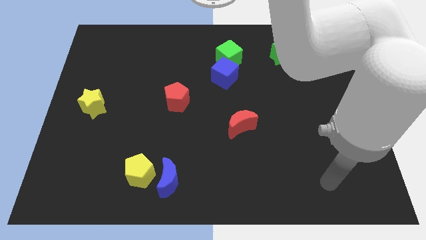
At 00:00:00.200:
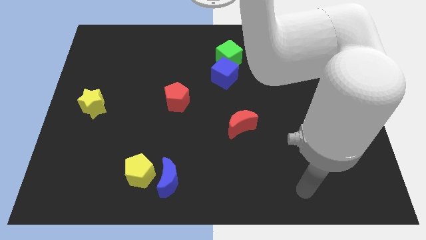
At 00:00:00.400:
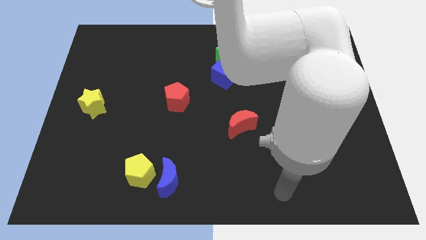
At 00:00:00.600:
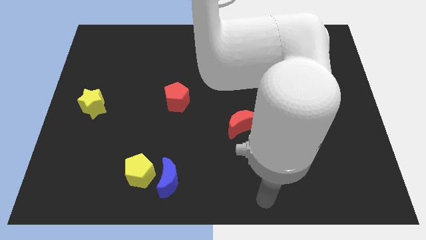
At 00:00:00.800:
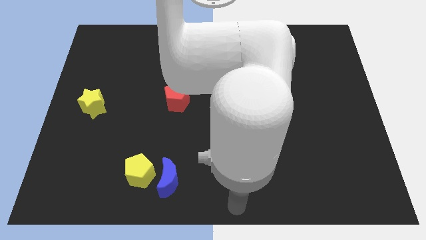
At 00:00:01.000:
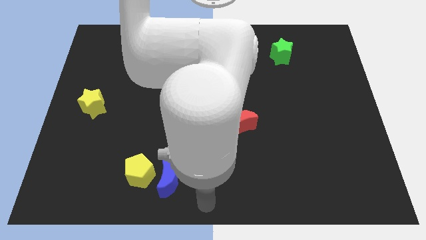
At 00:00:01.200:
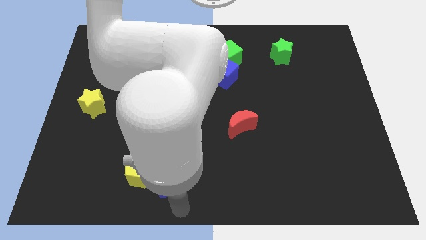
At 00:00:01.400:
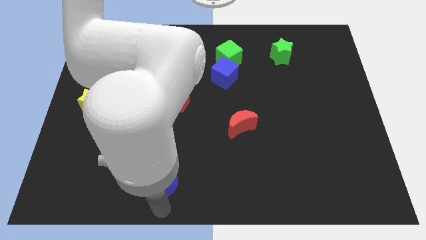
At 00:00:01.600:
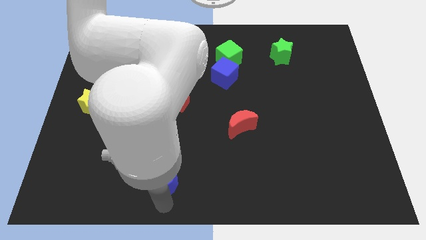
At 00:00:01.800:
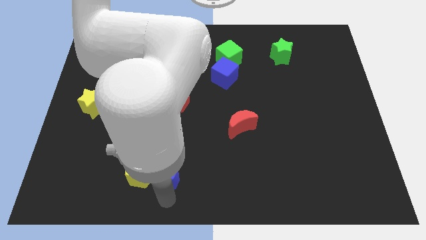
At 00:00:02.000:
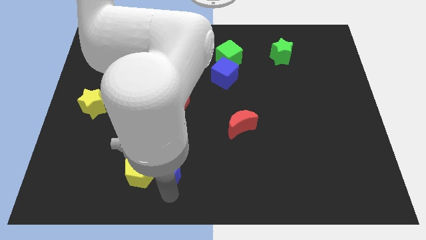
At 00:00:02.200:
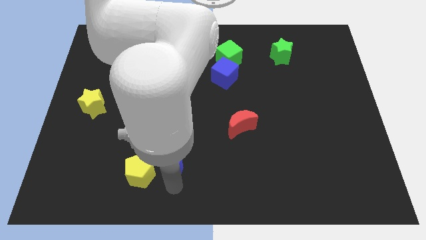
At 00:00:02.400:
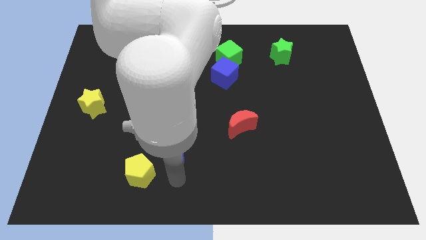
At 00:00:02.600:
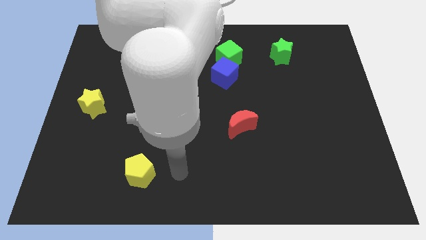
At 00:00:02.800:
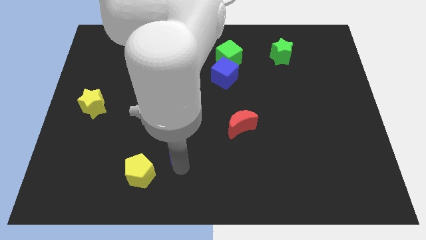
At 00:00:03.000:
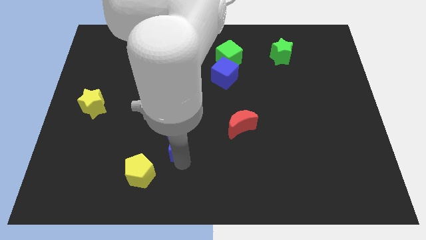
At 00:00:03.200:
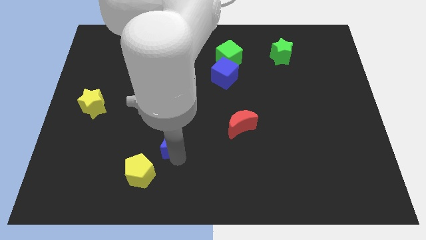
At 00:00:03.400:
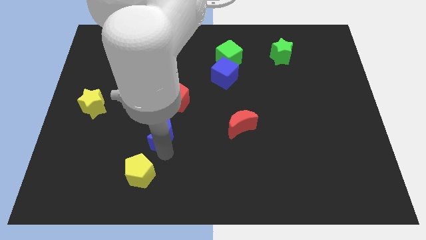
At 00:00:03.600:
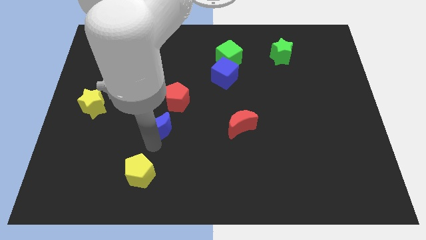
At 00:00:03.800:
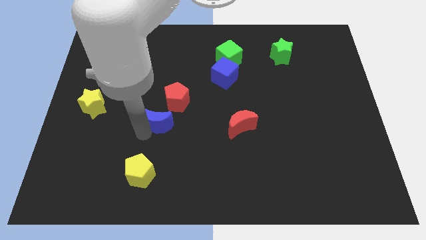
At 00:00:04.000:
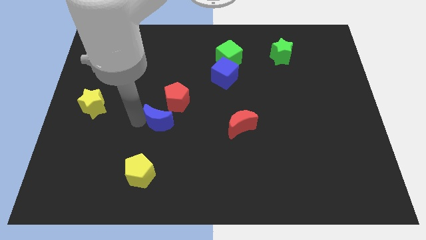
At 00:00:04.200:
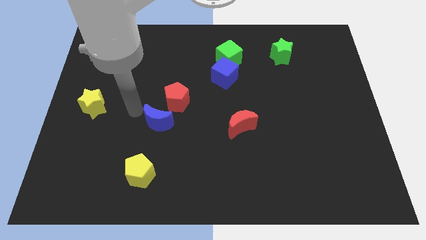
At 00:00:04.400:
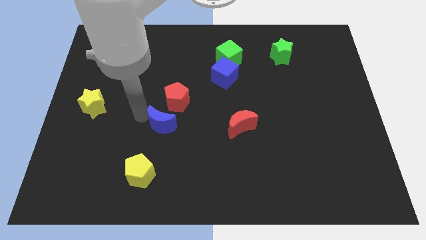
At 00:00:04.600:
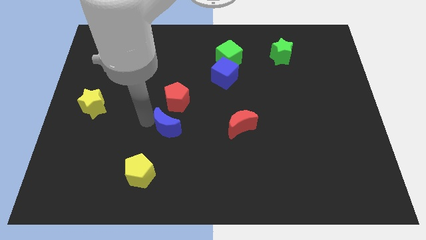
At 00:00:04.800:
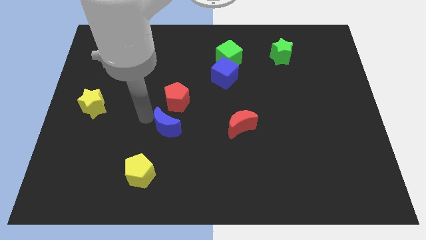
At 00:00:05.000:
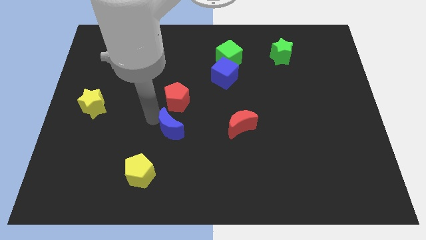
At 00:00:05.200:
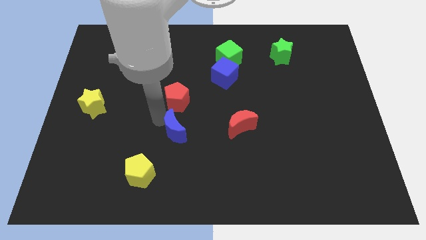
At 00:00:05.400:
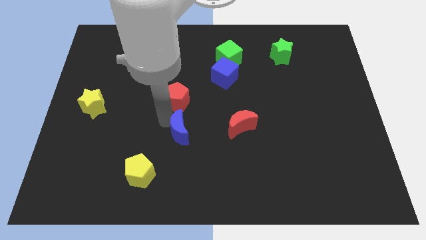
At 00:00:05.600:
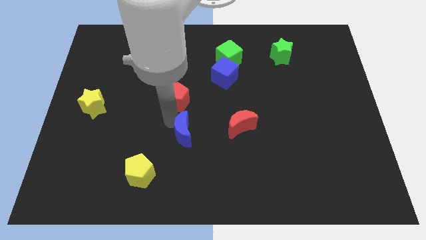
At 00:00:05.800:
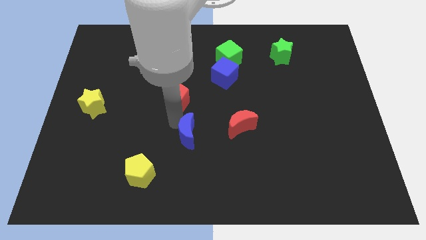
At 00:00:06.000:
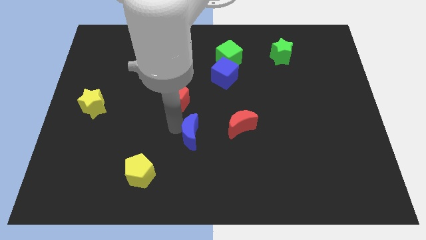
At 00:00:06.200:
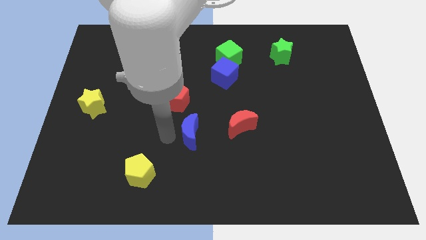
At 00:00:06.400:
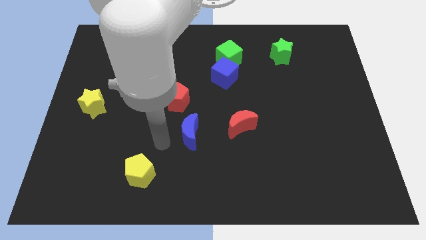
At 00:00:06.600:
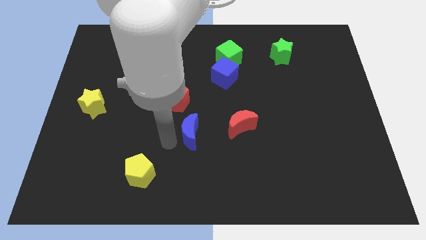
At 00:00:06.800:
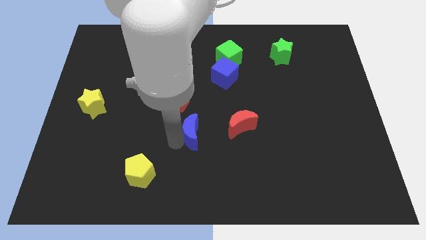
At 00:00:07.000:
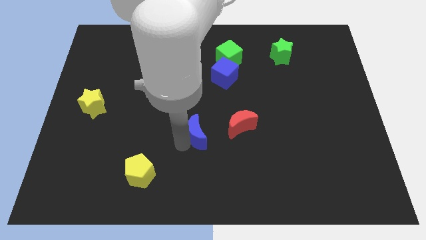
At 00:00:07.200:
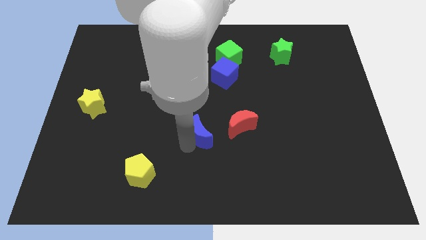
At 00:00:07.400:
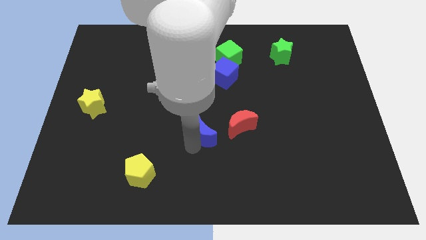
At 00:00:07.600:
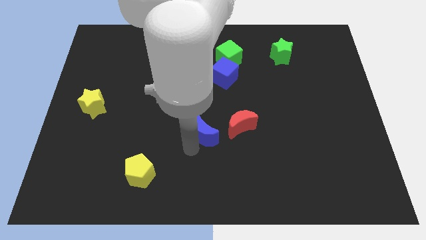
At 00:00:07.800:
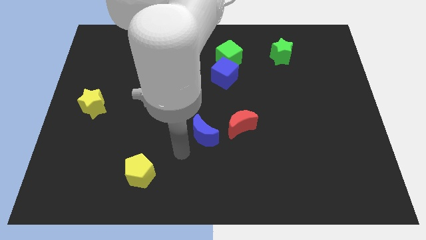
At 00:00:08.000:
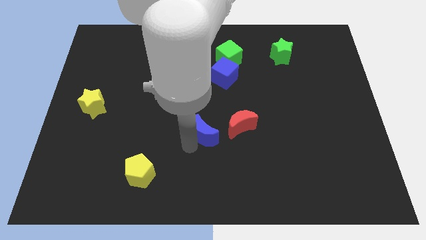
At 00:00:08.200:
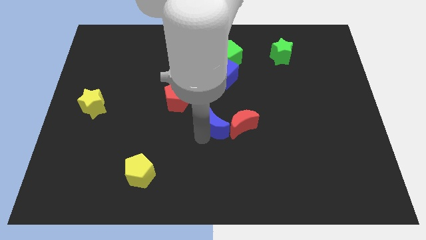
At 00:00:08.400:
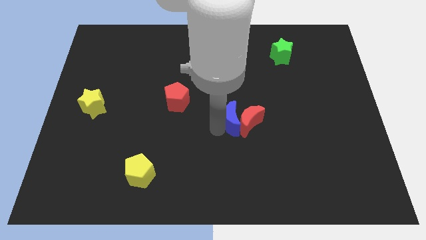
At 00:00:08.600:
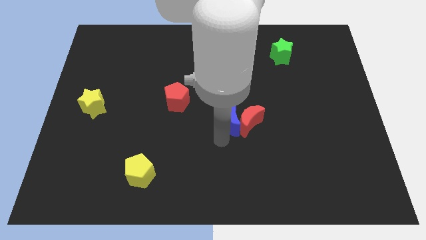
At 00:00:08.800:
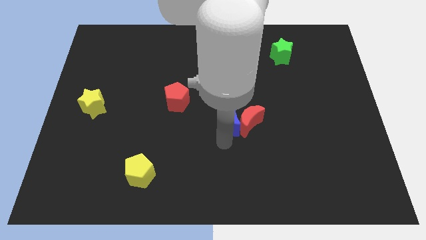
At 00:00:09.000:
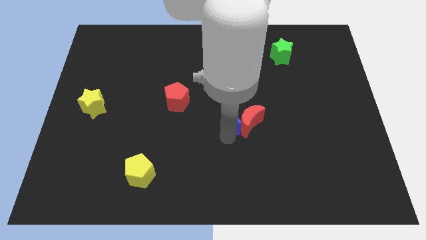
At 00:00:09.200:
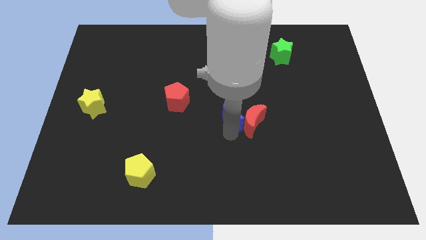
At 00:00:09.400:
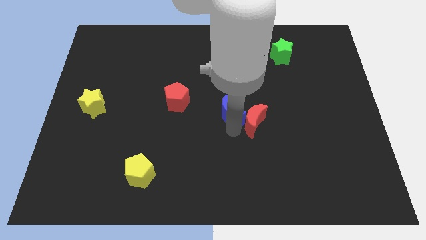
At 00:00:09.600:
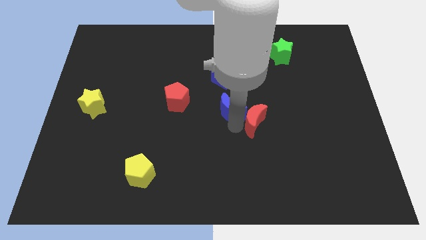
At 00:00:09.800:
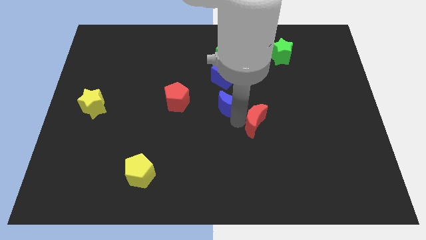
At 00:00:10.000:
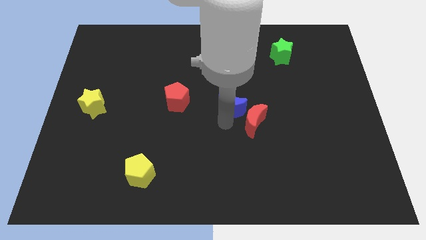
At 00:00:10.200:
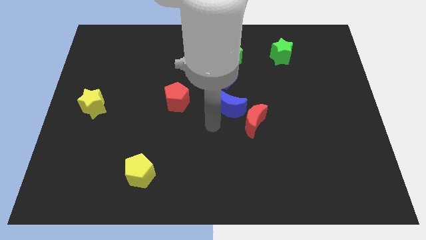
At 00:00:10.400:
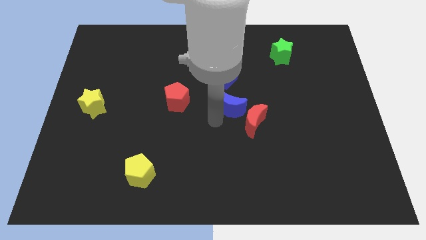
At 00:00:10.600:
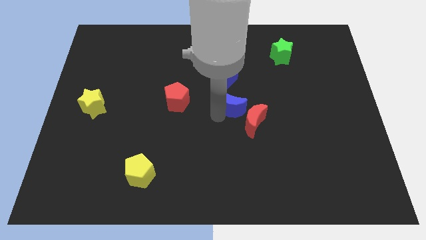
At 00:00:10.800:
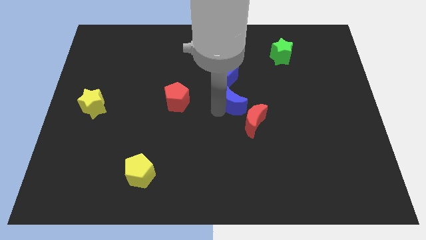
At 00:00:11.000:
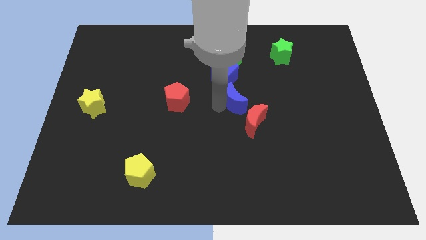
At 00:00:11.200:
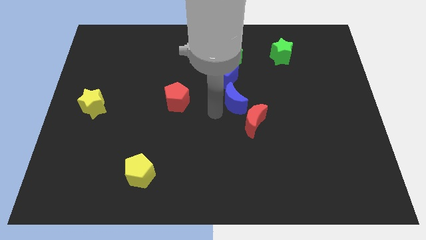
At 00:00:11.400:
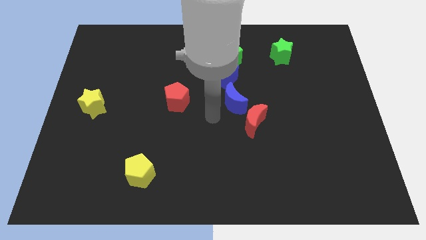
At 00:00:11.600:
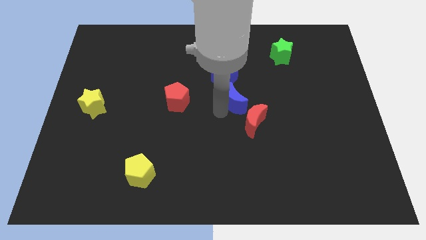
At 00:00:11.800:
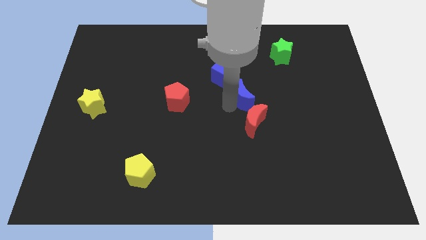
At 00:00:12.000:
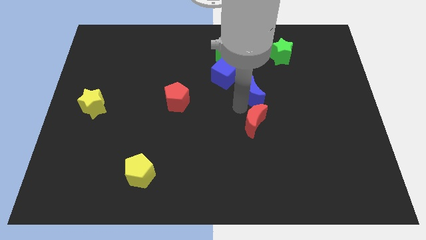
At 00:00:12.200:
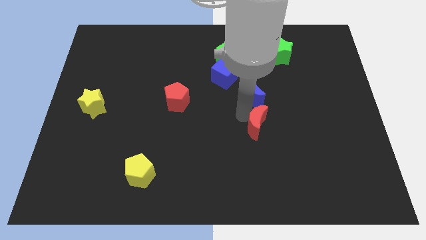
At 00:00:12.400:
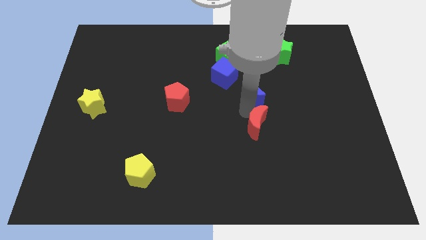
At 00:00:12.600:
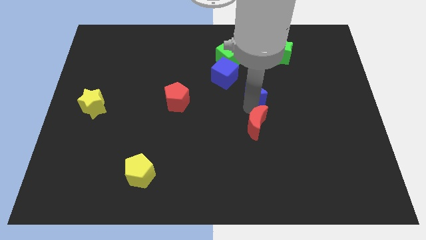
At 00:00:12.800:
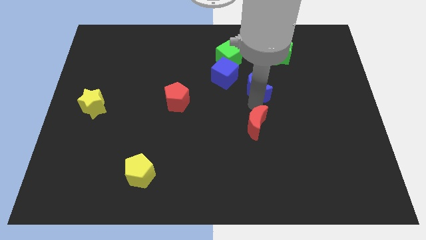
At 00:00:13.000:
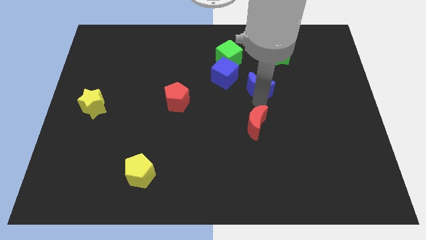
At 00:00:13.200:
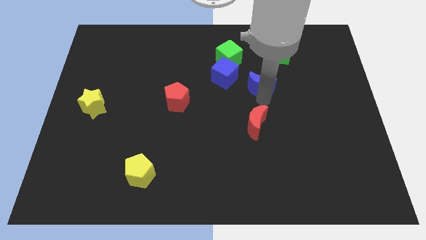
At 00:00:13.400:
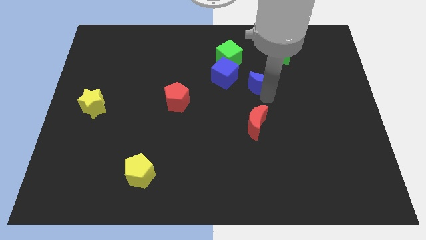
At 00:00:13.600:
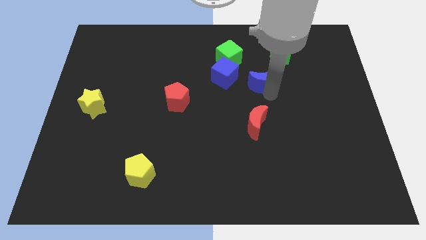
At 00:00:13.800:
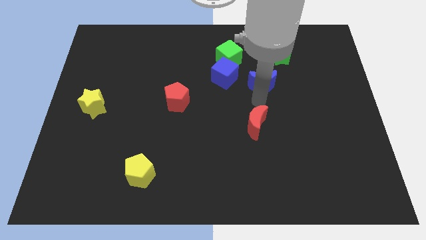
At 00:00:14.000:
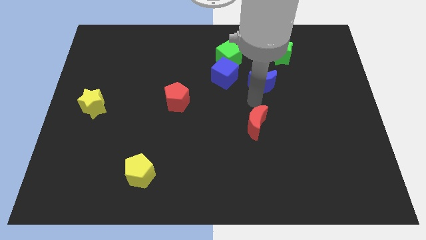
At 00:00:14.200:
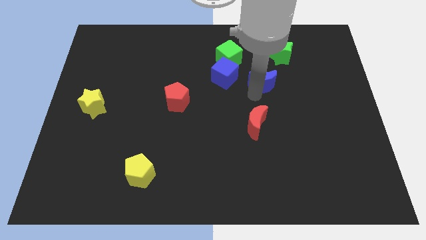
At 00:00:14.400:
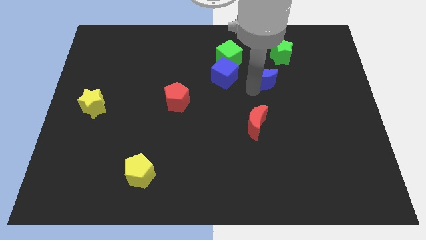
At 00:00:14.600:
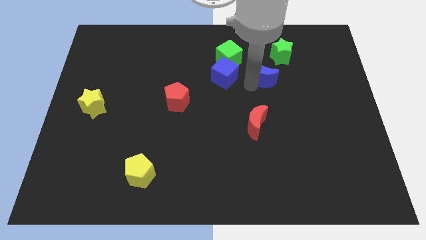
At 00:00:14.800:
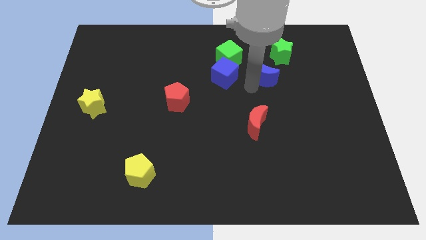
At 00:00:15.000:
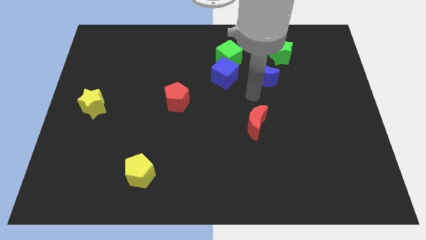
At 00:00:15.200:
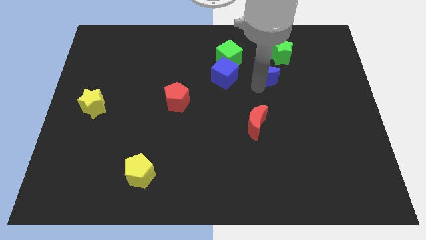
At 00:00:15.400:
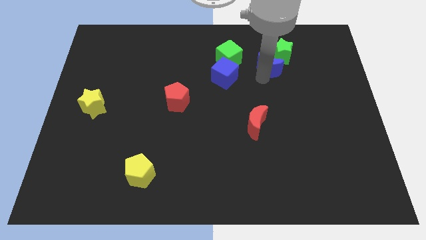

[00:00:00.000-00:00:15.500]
slide the blue moon close to the green star
